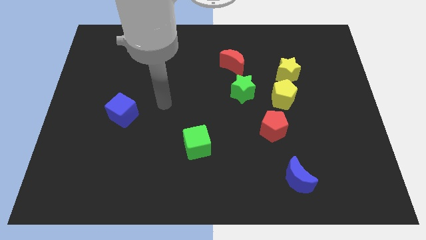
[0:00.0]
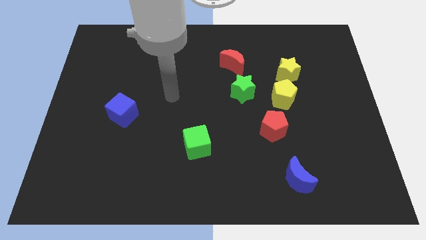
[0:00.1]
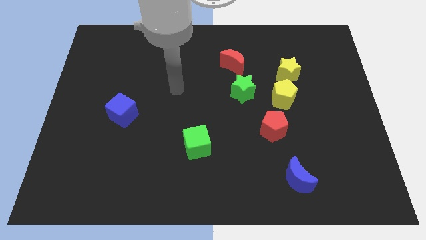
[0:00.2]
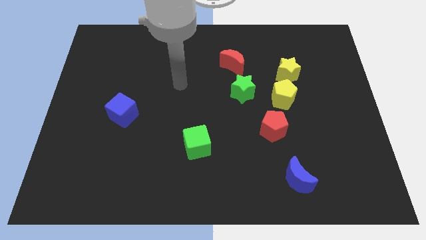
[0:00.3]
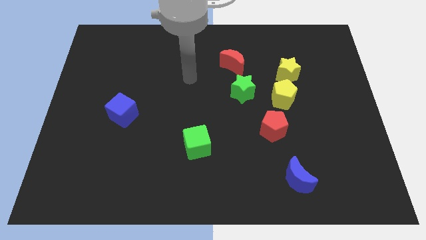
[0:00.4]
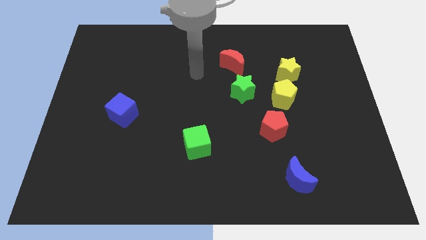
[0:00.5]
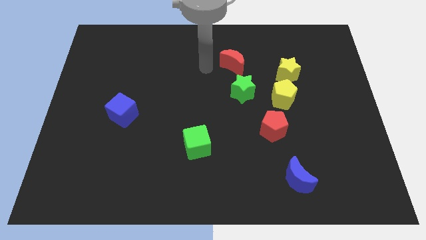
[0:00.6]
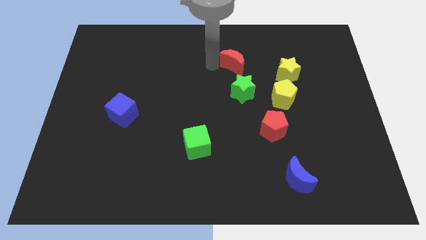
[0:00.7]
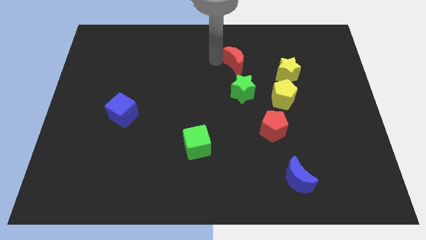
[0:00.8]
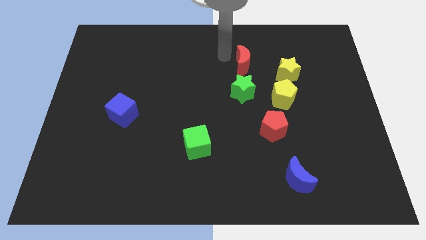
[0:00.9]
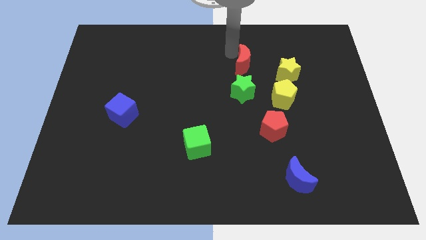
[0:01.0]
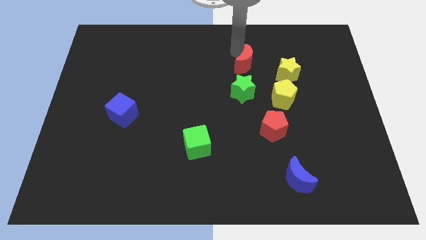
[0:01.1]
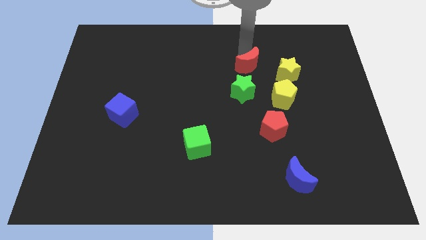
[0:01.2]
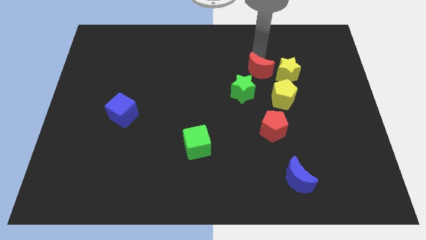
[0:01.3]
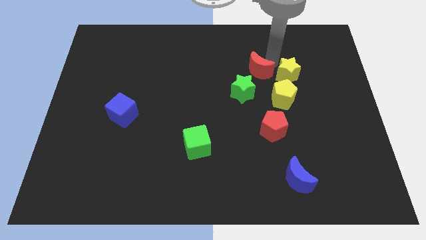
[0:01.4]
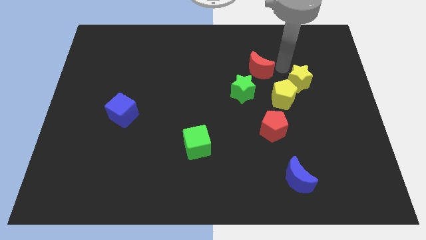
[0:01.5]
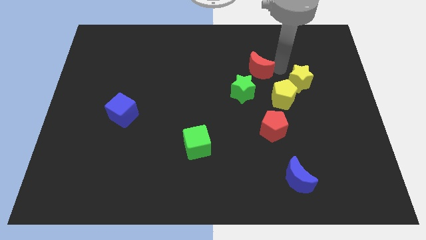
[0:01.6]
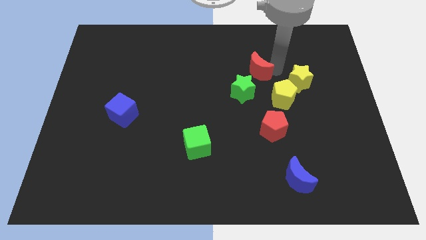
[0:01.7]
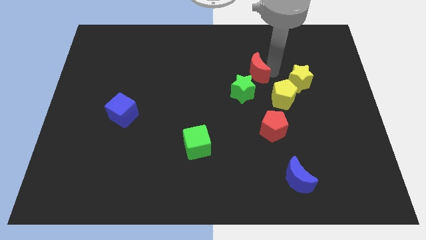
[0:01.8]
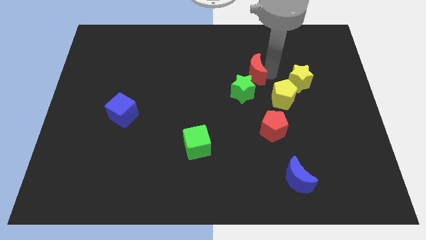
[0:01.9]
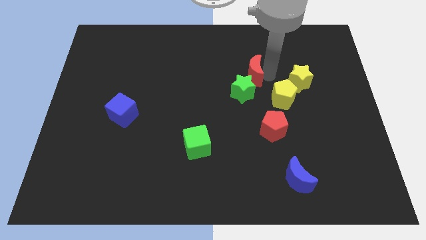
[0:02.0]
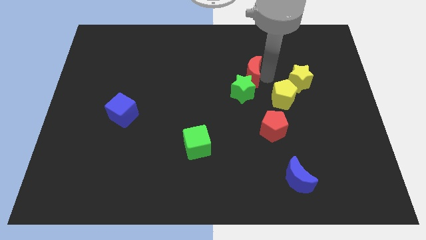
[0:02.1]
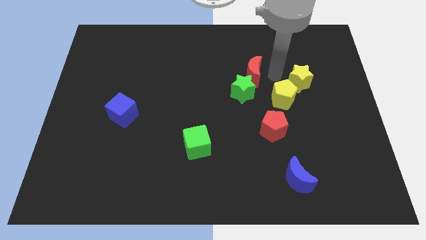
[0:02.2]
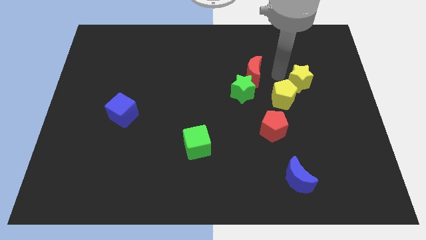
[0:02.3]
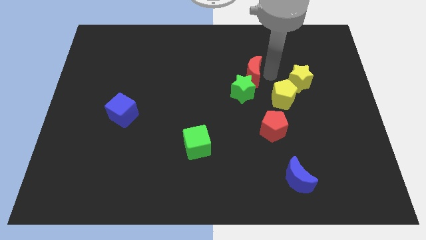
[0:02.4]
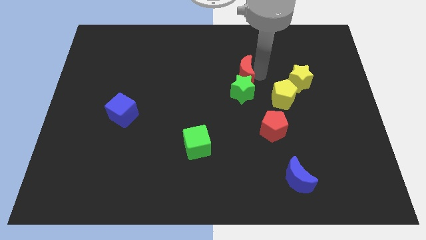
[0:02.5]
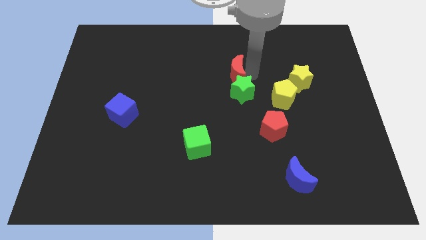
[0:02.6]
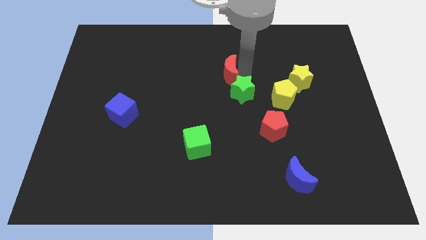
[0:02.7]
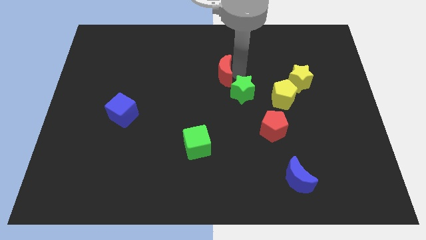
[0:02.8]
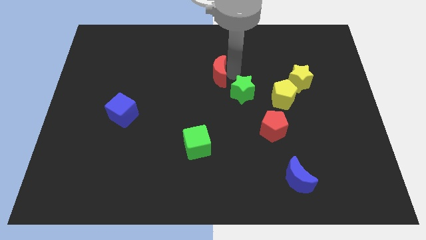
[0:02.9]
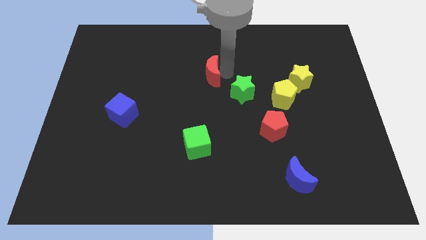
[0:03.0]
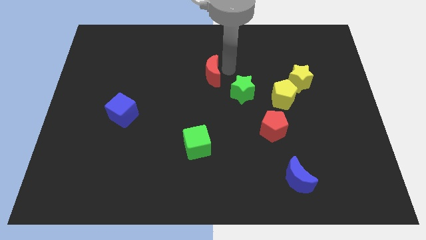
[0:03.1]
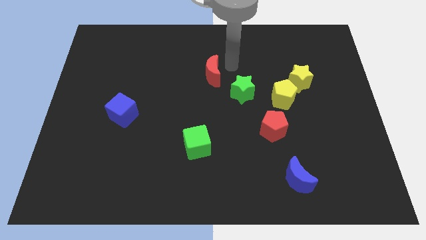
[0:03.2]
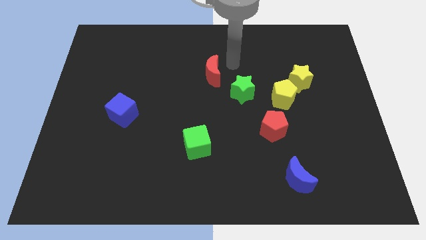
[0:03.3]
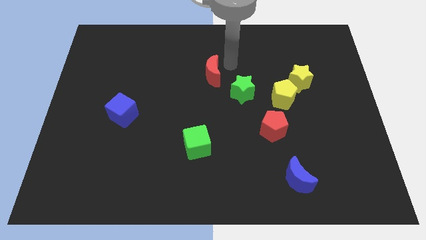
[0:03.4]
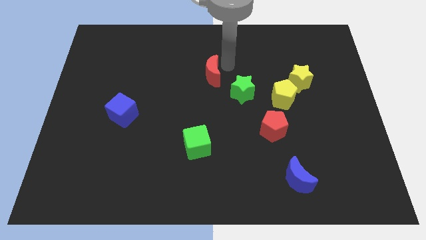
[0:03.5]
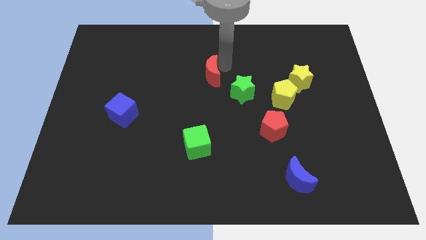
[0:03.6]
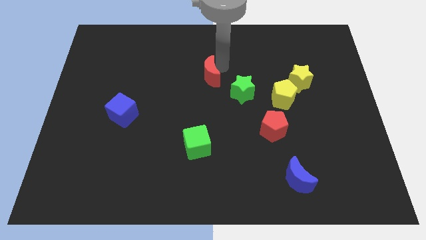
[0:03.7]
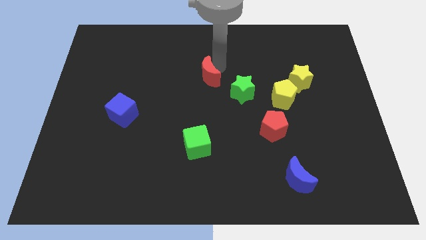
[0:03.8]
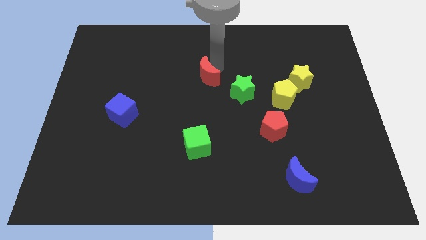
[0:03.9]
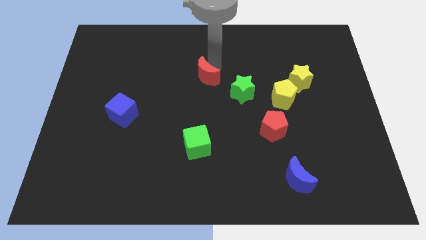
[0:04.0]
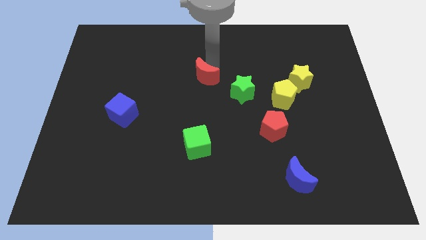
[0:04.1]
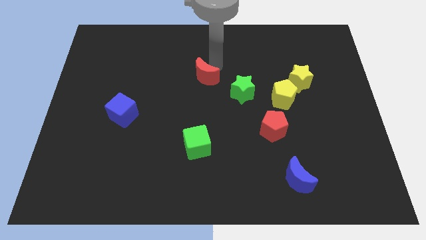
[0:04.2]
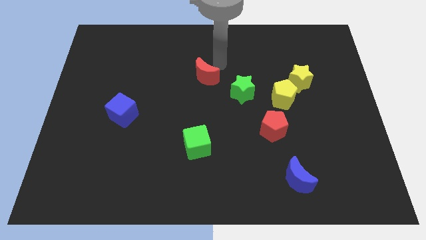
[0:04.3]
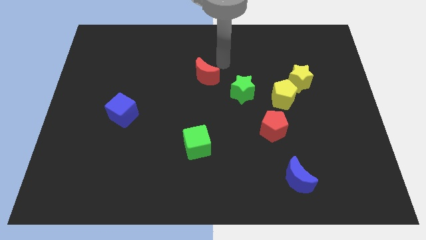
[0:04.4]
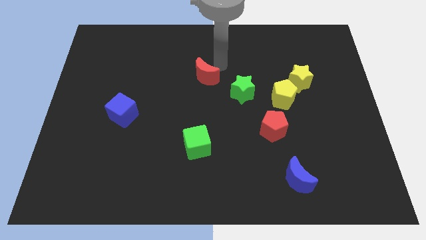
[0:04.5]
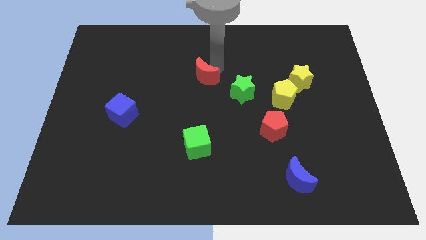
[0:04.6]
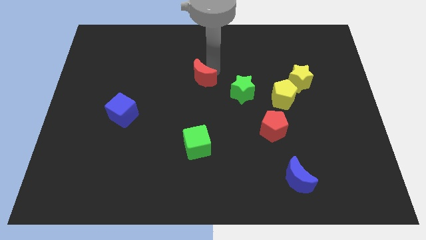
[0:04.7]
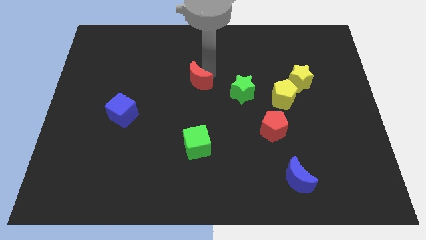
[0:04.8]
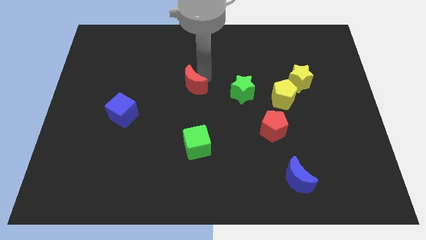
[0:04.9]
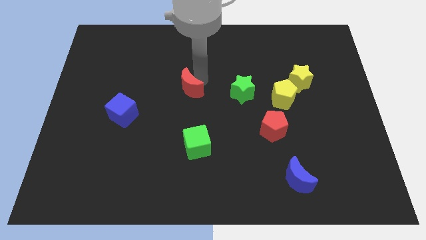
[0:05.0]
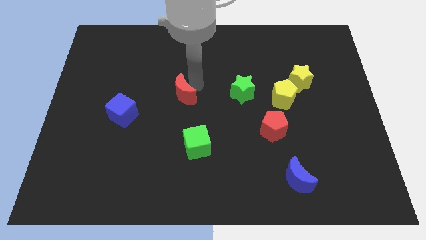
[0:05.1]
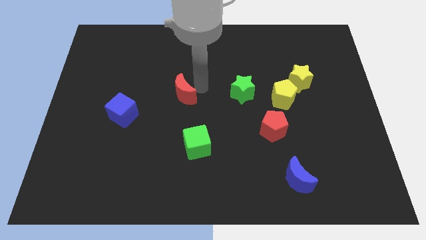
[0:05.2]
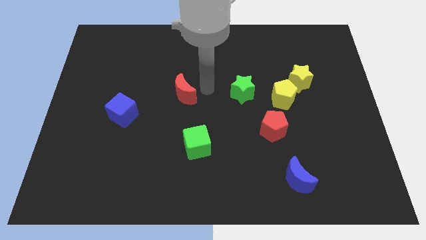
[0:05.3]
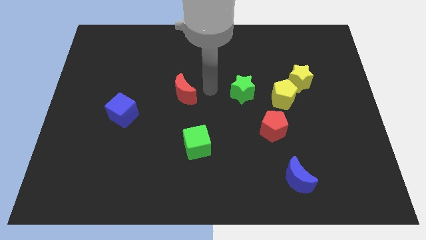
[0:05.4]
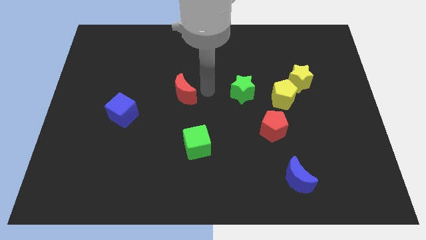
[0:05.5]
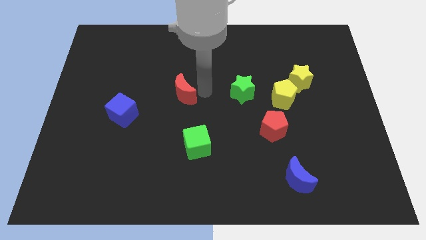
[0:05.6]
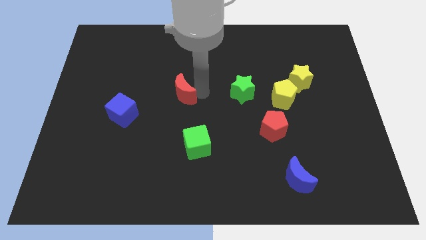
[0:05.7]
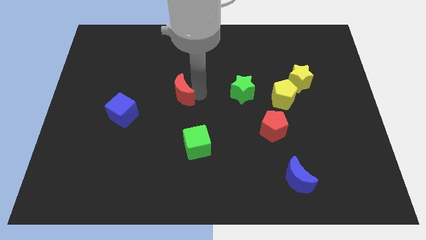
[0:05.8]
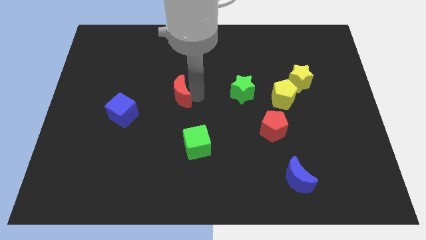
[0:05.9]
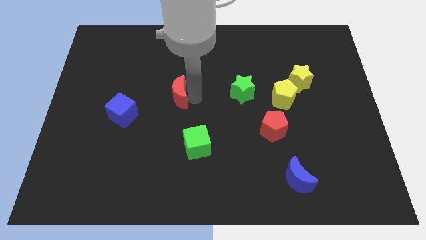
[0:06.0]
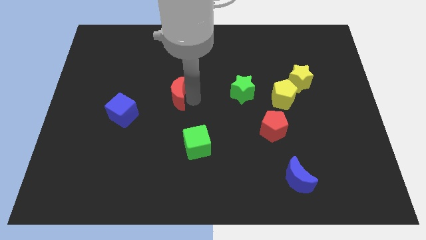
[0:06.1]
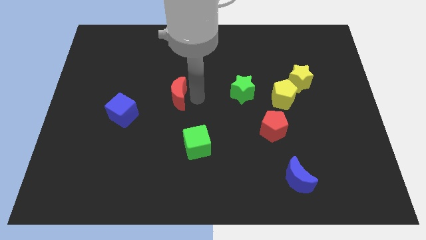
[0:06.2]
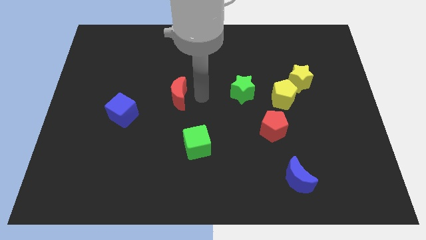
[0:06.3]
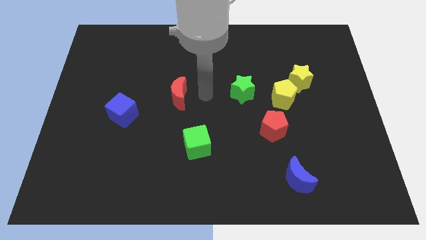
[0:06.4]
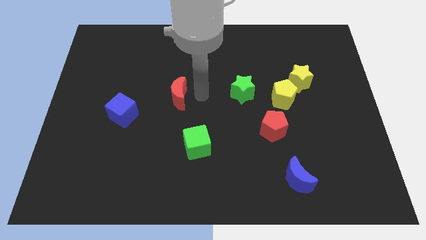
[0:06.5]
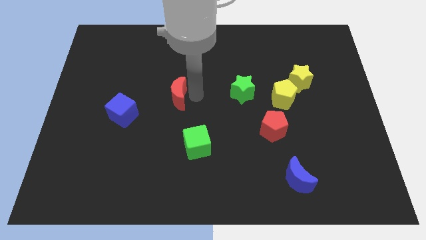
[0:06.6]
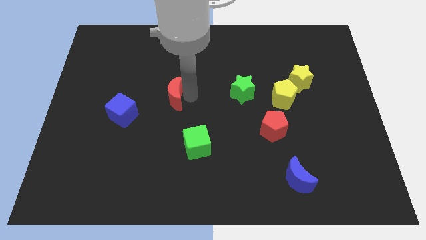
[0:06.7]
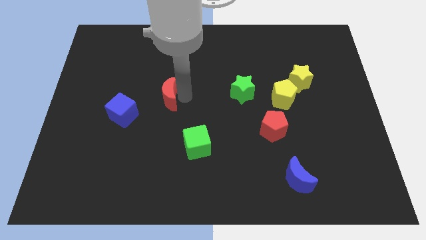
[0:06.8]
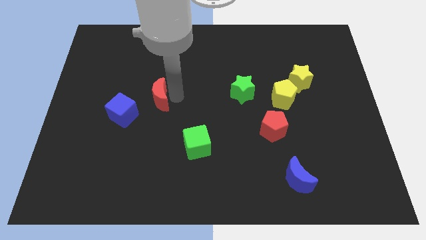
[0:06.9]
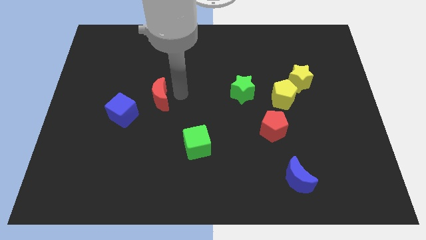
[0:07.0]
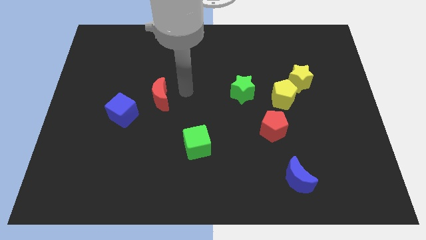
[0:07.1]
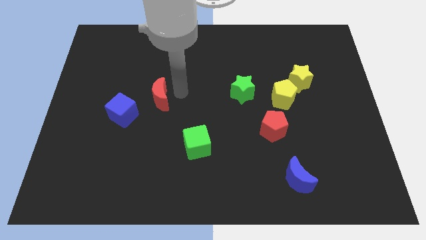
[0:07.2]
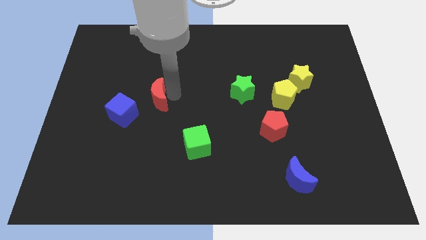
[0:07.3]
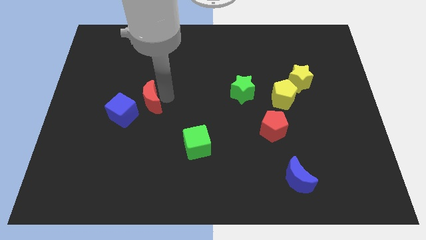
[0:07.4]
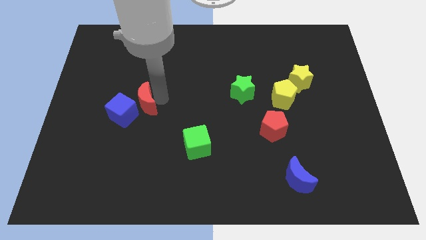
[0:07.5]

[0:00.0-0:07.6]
move the red moon close to the blue cube
